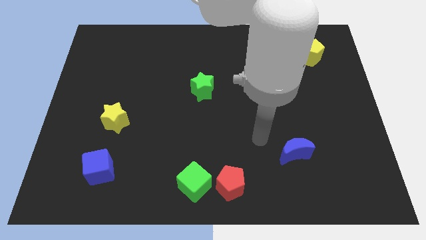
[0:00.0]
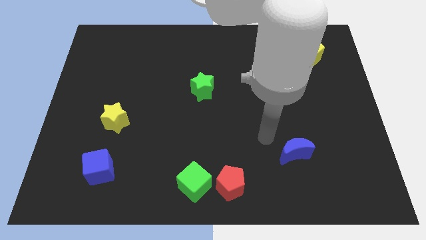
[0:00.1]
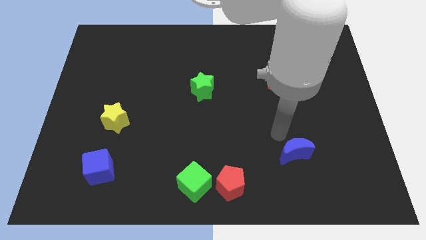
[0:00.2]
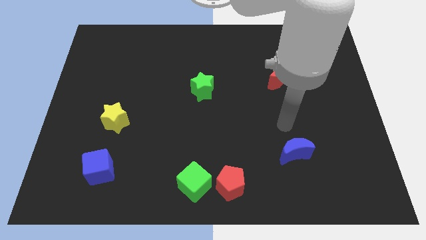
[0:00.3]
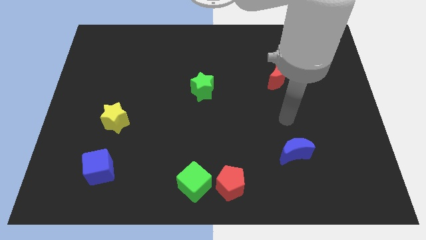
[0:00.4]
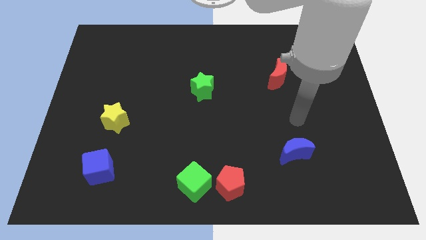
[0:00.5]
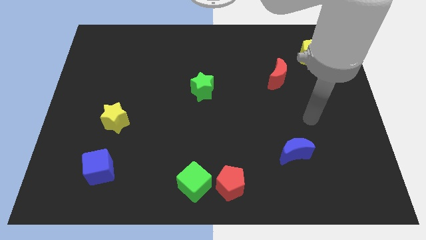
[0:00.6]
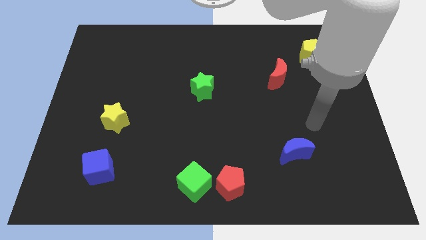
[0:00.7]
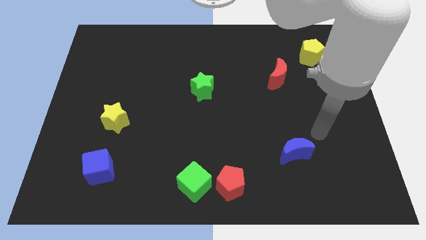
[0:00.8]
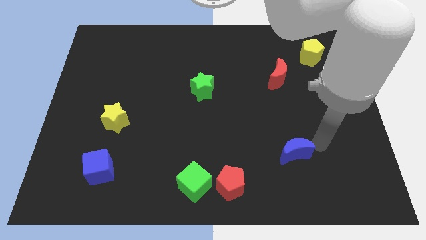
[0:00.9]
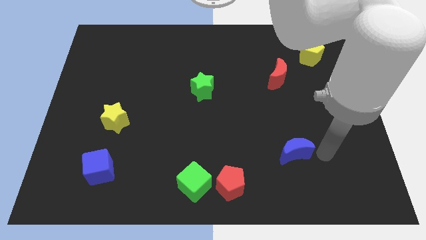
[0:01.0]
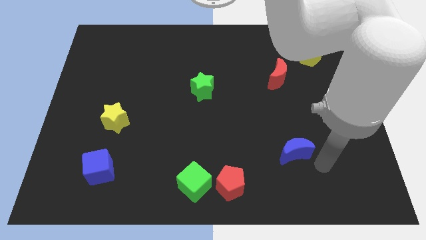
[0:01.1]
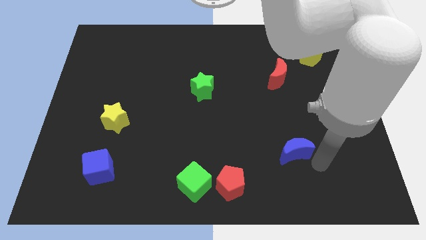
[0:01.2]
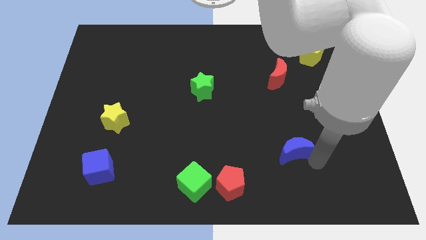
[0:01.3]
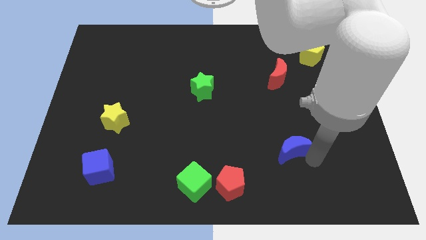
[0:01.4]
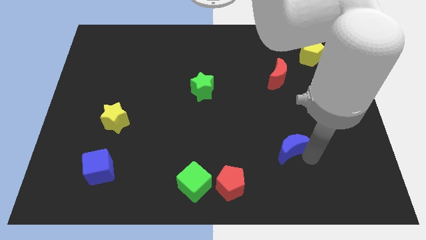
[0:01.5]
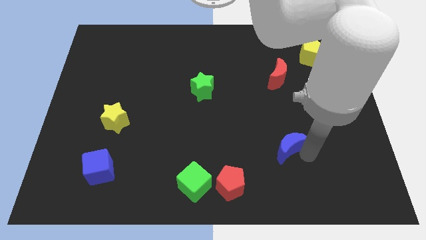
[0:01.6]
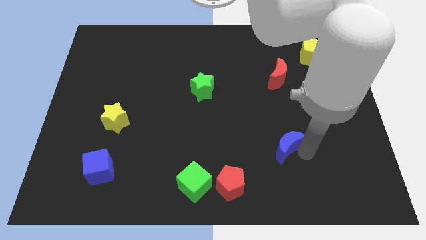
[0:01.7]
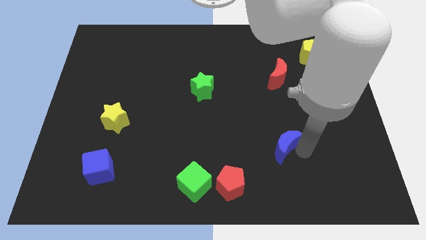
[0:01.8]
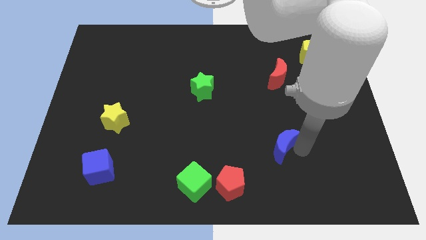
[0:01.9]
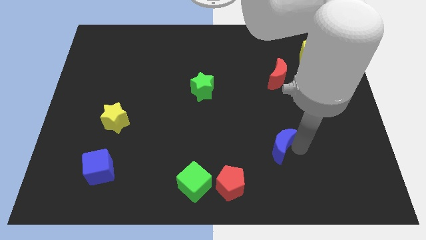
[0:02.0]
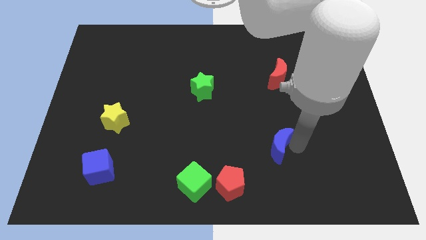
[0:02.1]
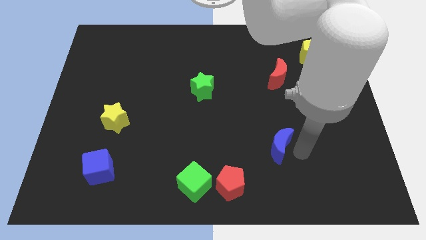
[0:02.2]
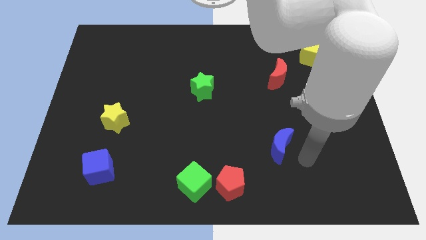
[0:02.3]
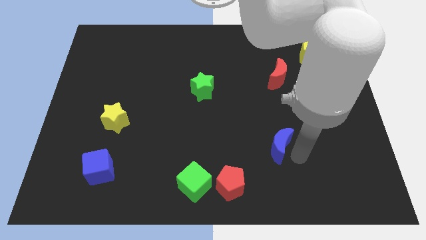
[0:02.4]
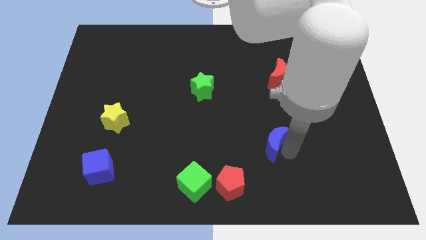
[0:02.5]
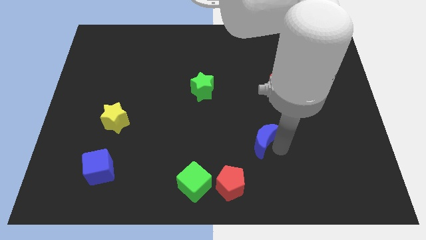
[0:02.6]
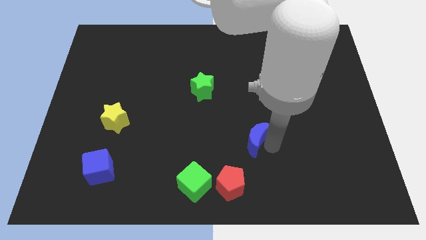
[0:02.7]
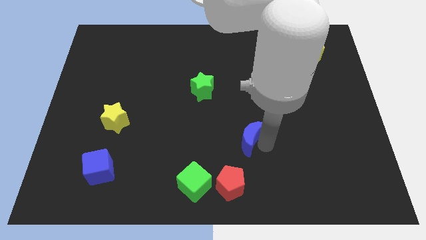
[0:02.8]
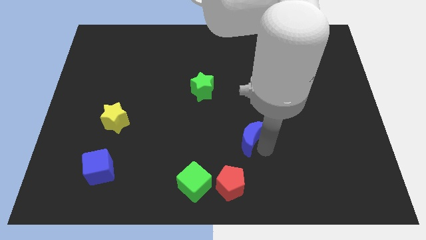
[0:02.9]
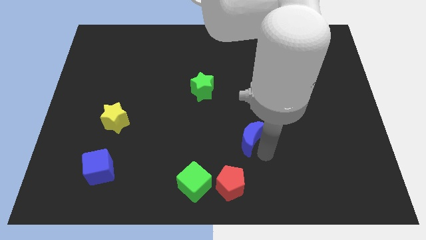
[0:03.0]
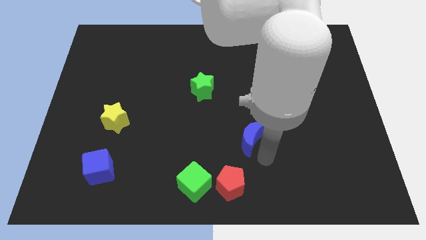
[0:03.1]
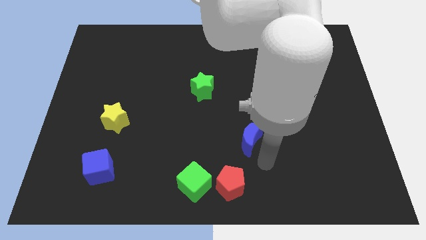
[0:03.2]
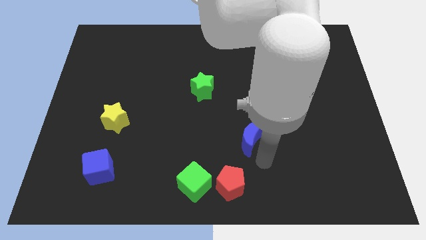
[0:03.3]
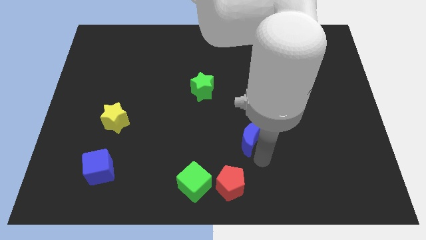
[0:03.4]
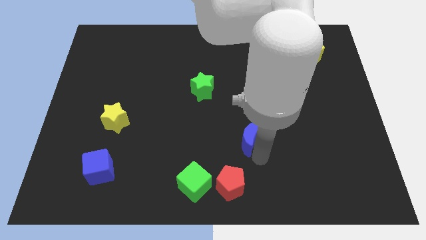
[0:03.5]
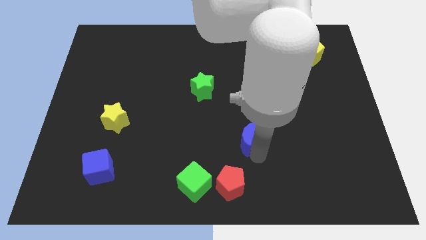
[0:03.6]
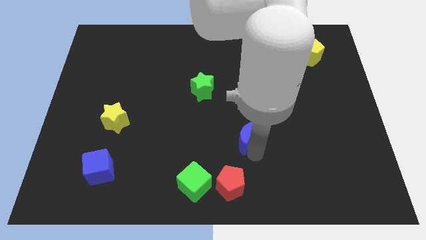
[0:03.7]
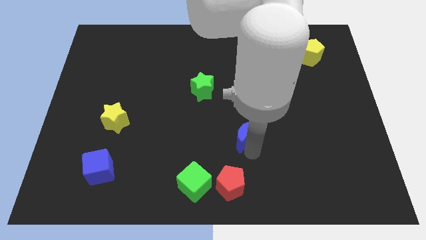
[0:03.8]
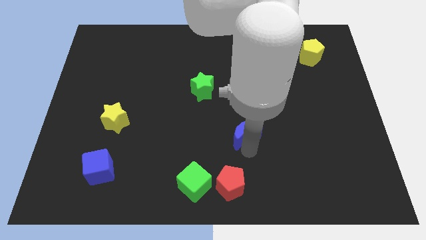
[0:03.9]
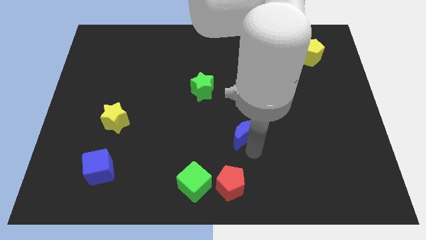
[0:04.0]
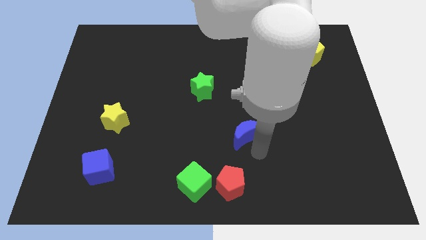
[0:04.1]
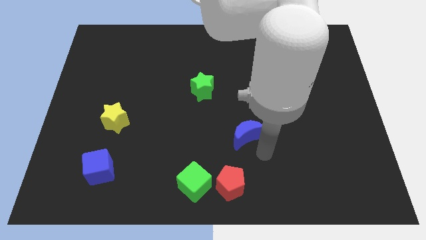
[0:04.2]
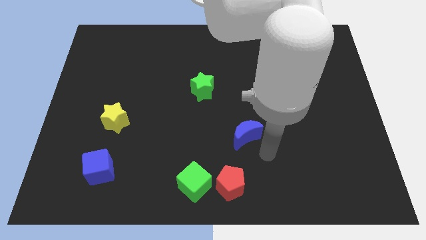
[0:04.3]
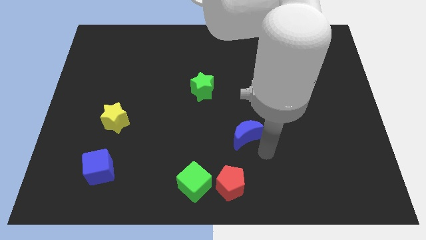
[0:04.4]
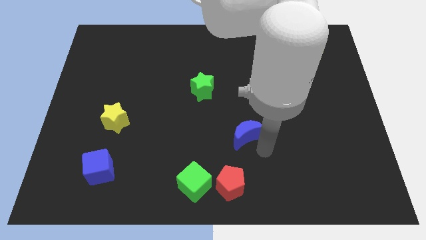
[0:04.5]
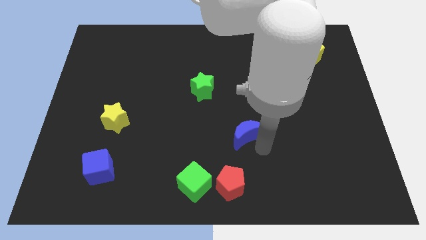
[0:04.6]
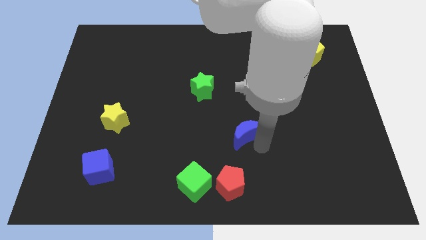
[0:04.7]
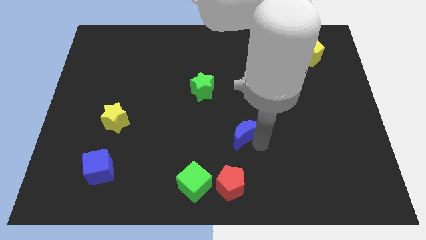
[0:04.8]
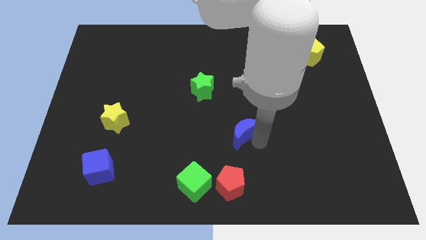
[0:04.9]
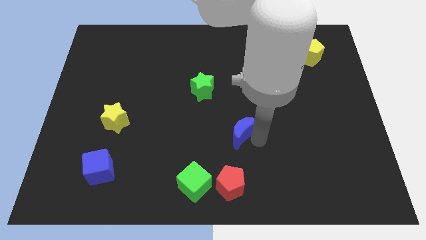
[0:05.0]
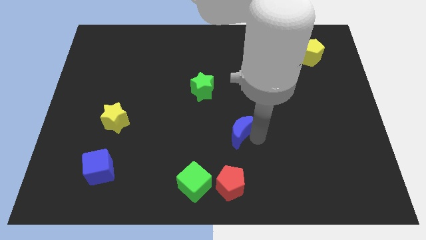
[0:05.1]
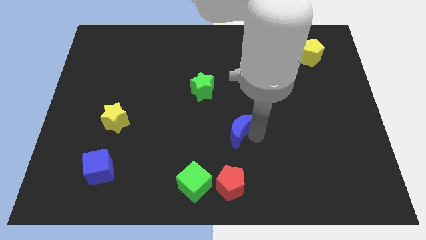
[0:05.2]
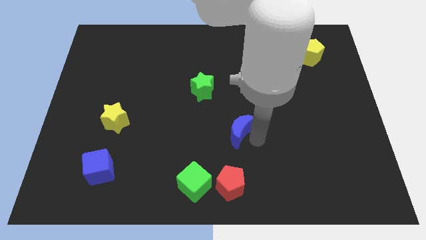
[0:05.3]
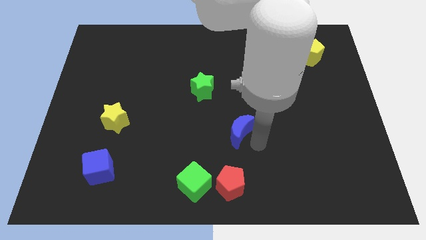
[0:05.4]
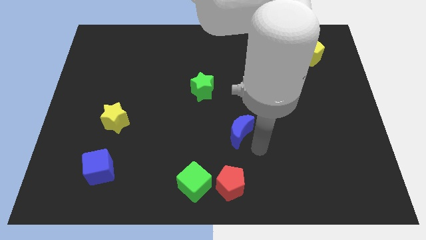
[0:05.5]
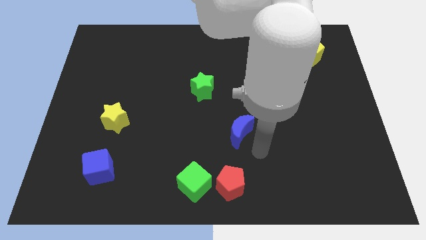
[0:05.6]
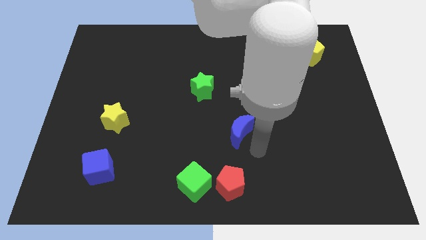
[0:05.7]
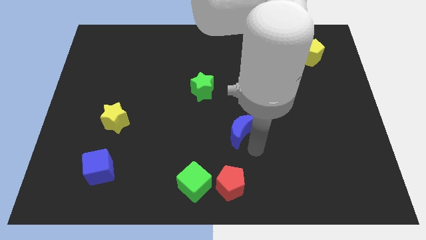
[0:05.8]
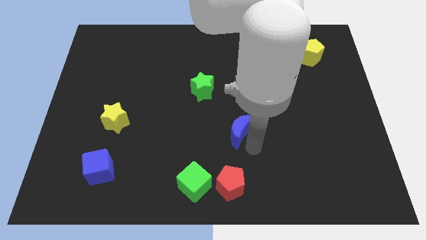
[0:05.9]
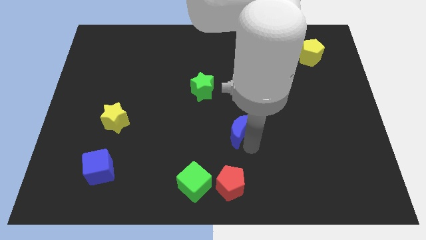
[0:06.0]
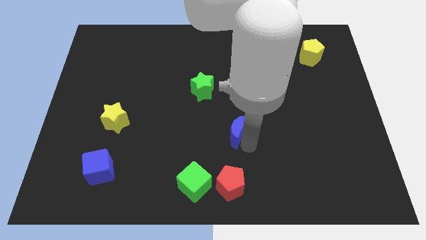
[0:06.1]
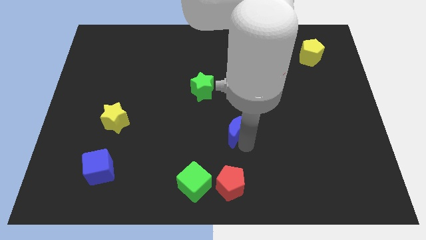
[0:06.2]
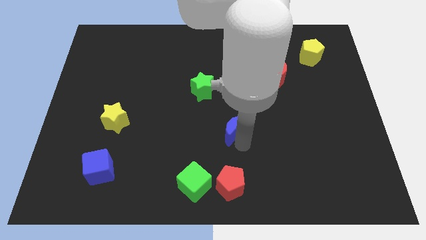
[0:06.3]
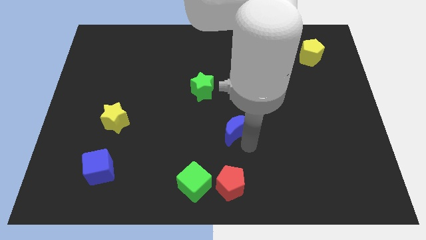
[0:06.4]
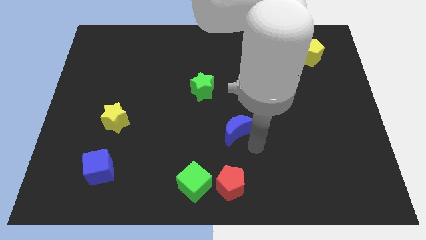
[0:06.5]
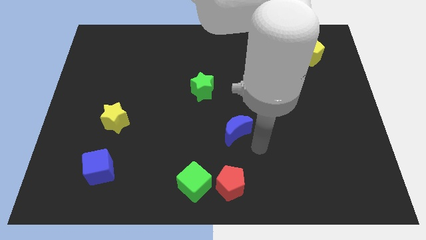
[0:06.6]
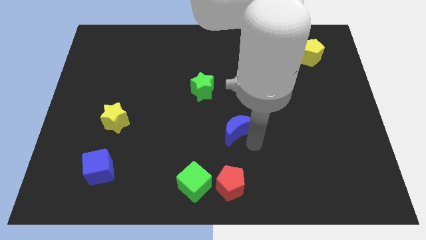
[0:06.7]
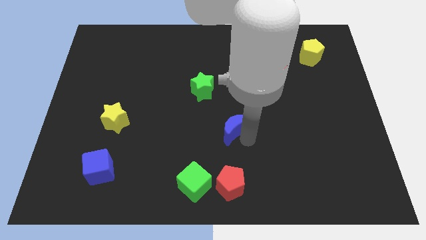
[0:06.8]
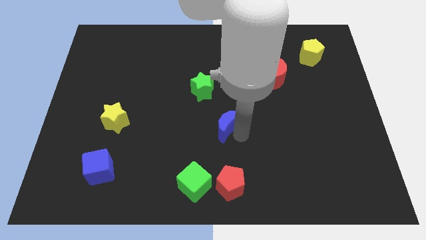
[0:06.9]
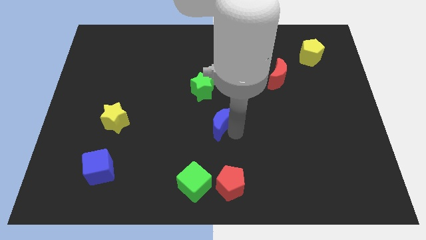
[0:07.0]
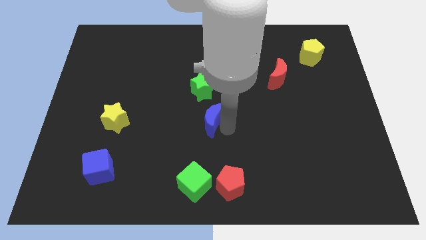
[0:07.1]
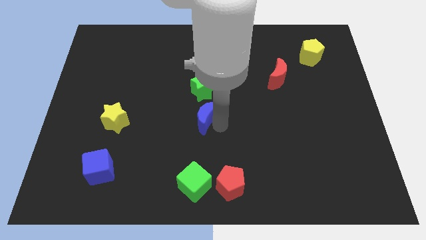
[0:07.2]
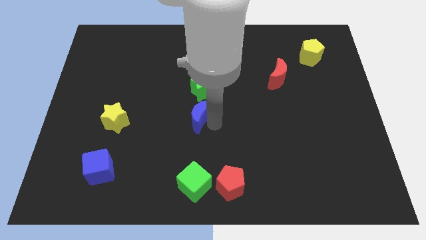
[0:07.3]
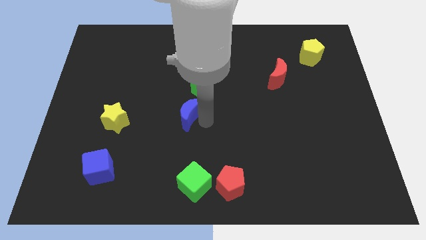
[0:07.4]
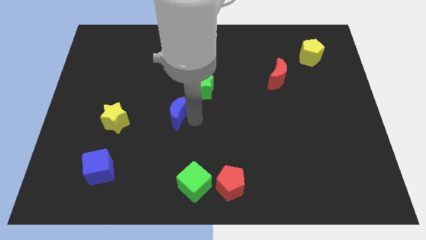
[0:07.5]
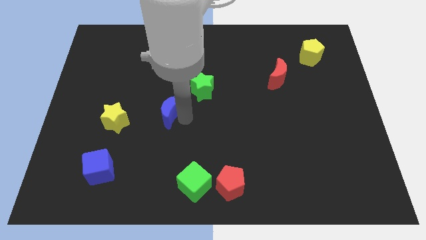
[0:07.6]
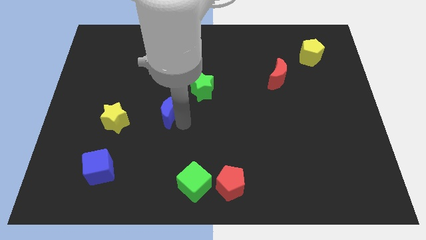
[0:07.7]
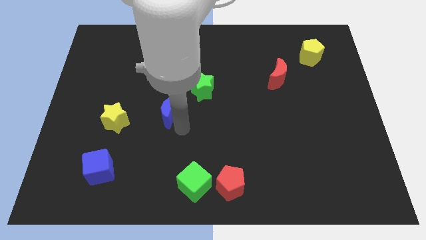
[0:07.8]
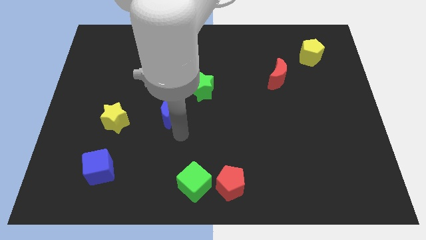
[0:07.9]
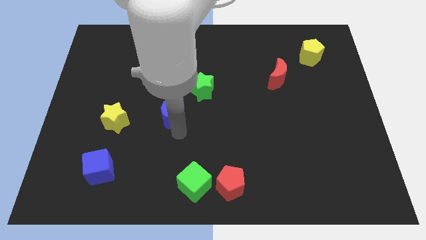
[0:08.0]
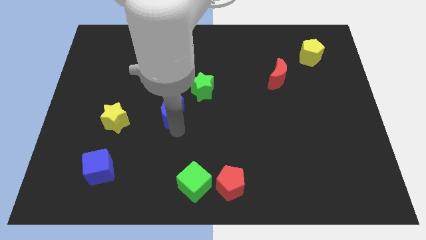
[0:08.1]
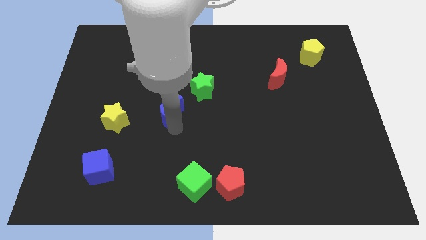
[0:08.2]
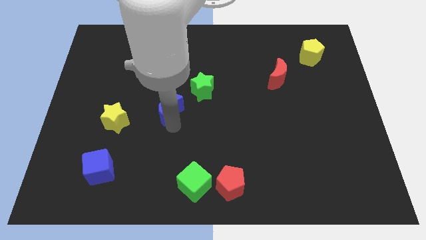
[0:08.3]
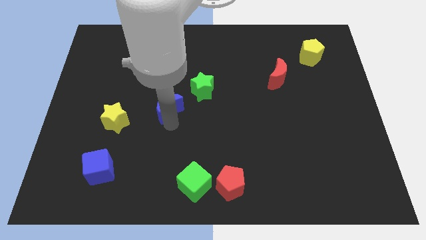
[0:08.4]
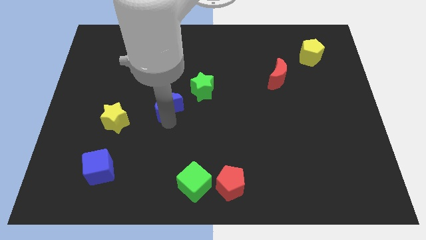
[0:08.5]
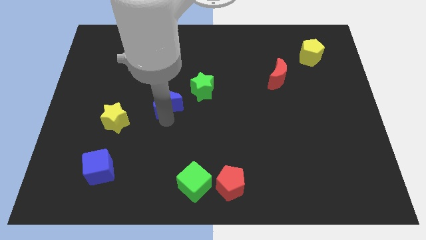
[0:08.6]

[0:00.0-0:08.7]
move the blue moon to the left of the green star
